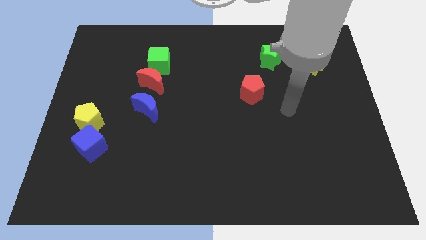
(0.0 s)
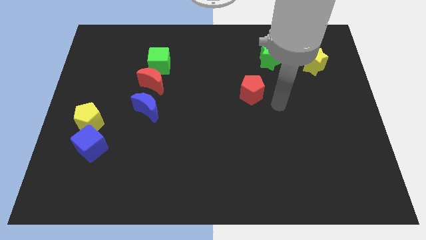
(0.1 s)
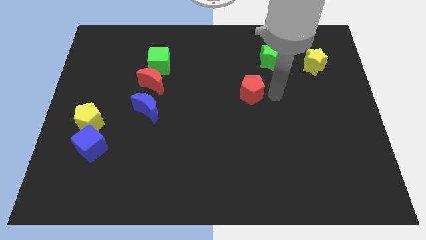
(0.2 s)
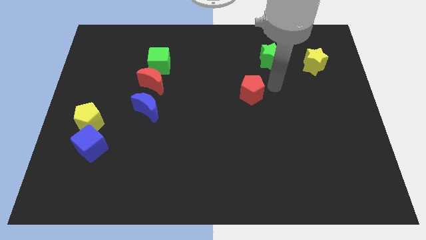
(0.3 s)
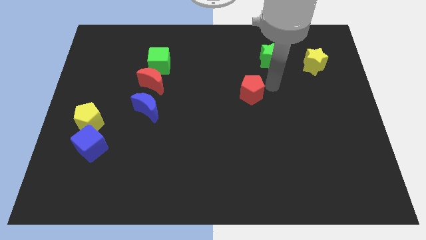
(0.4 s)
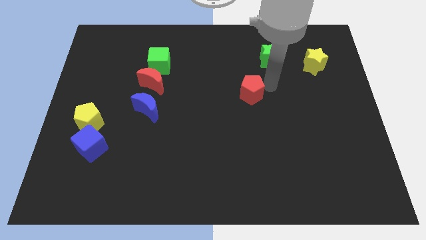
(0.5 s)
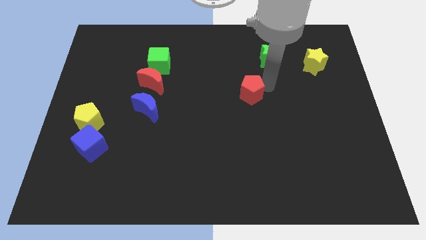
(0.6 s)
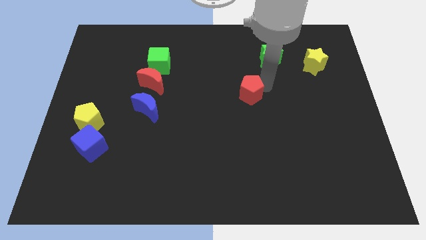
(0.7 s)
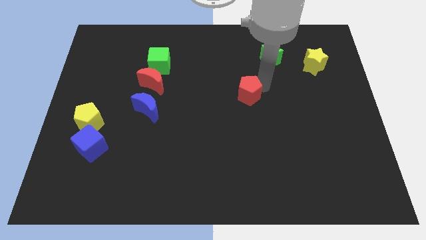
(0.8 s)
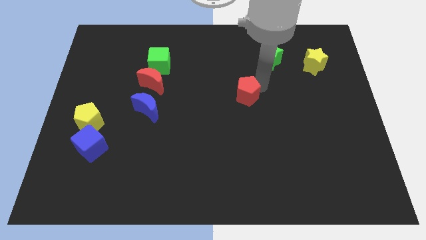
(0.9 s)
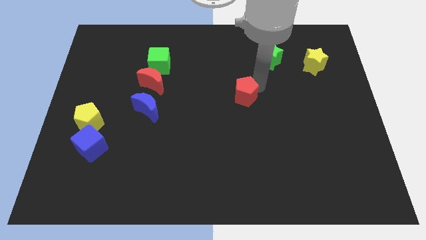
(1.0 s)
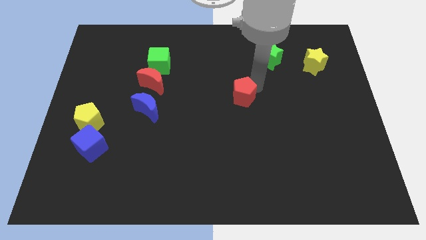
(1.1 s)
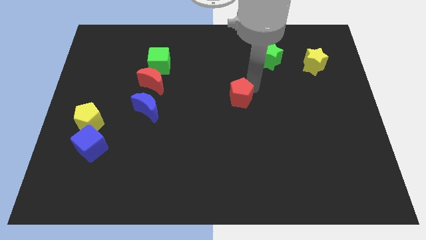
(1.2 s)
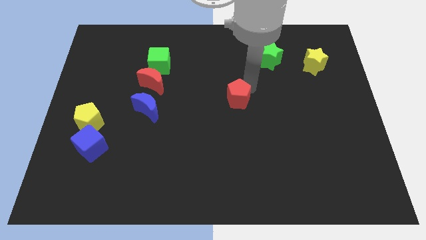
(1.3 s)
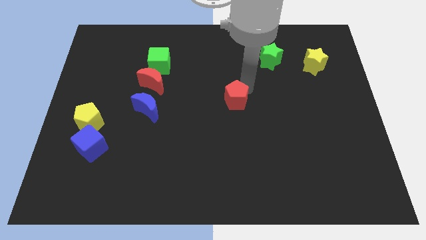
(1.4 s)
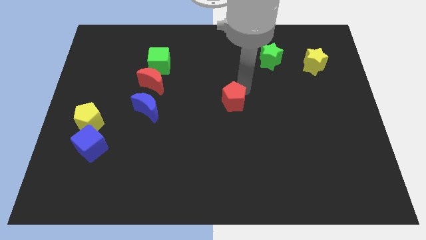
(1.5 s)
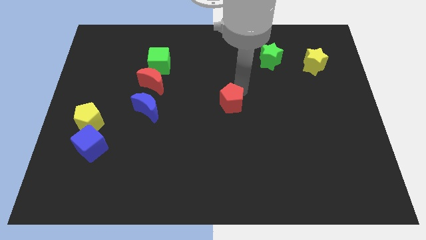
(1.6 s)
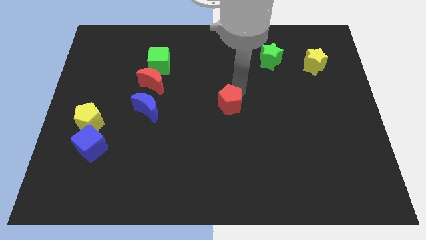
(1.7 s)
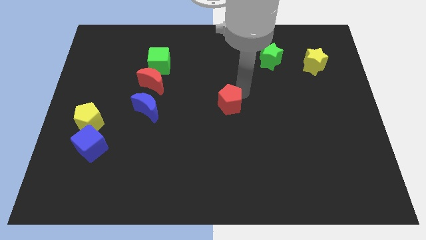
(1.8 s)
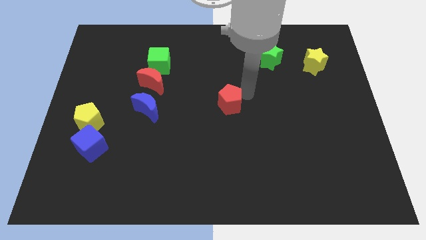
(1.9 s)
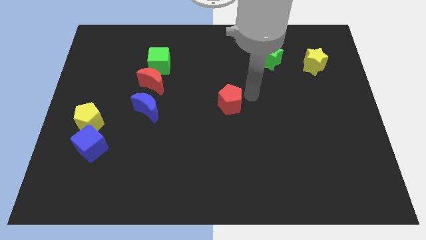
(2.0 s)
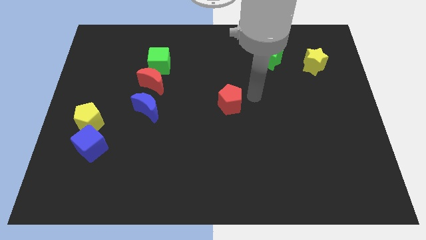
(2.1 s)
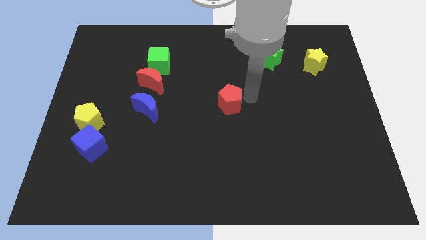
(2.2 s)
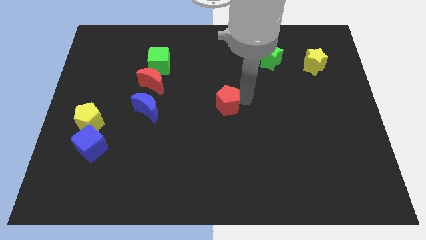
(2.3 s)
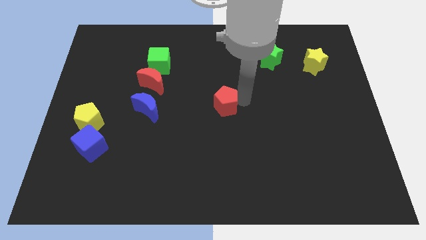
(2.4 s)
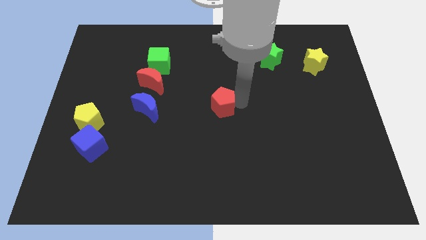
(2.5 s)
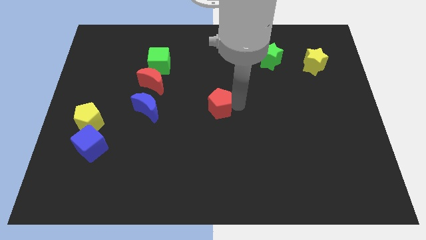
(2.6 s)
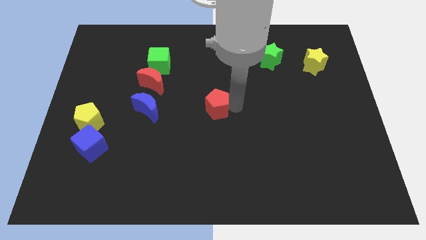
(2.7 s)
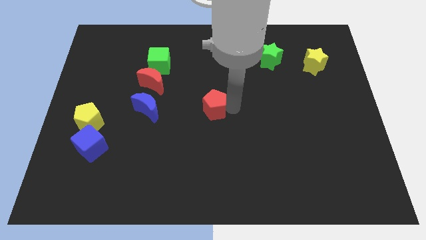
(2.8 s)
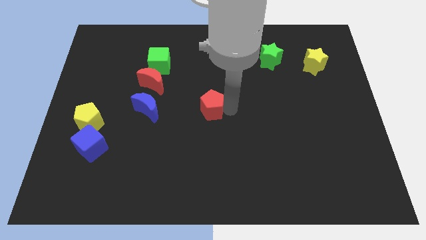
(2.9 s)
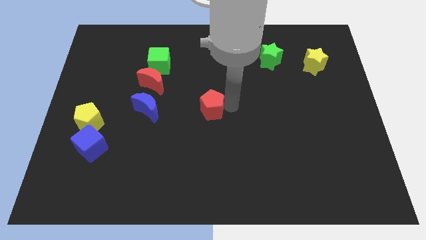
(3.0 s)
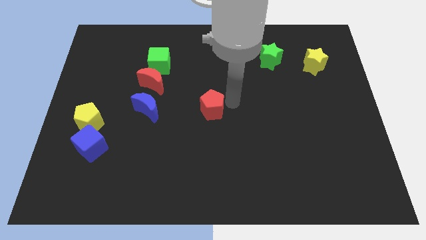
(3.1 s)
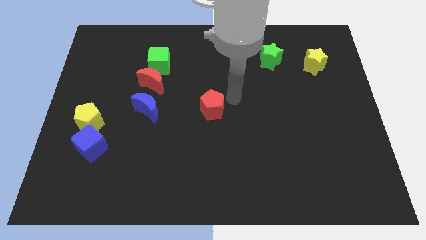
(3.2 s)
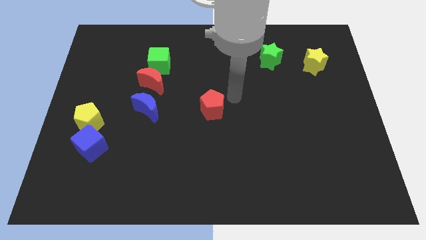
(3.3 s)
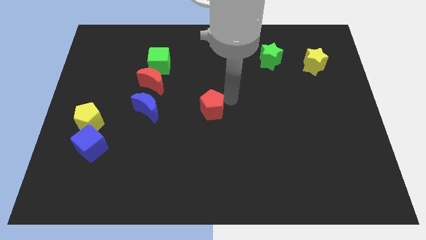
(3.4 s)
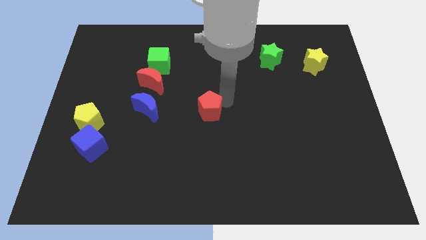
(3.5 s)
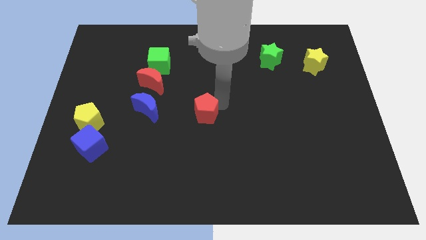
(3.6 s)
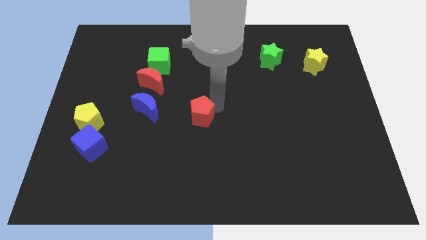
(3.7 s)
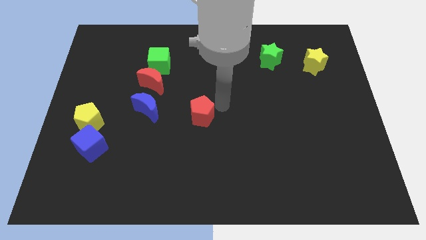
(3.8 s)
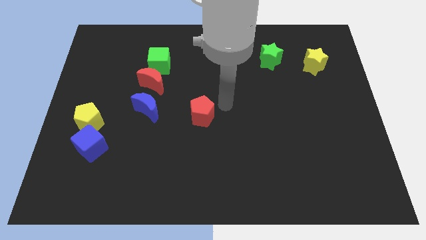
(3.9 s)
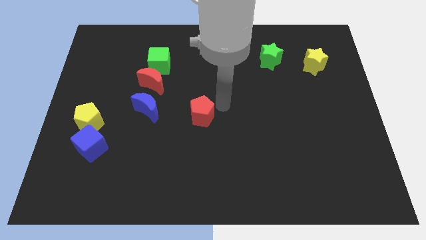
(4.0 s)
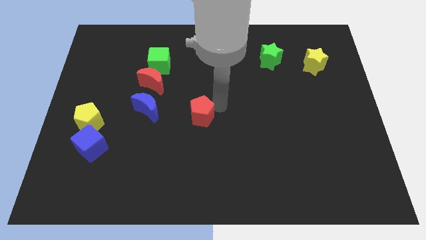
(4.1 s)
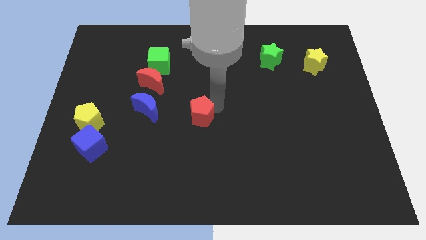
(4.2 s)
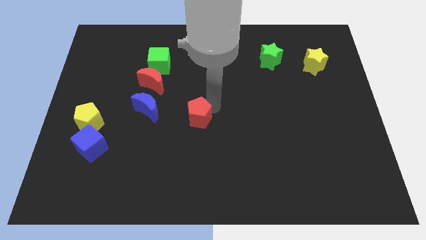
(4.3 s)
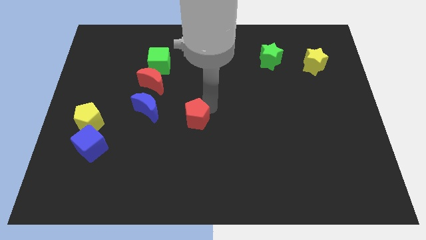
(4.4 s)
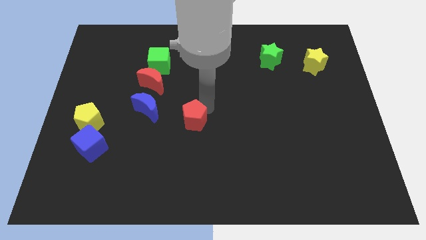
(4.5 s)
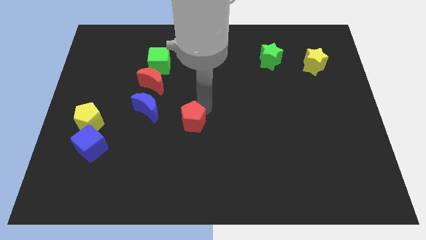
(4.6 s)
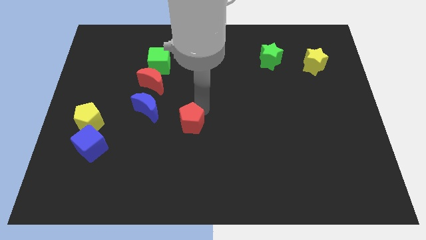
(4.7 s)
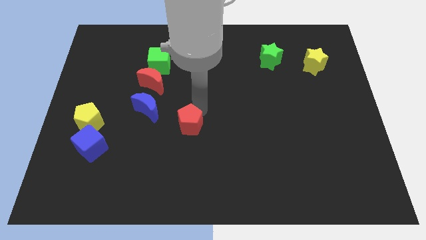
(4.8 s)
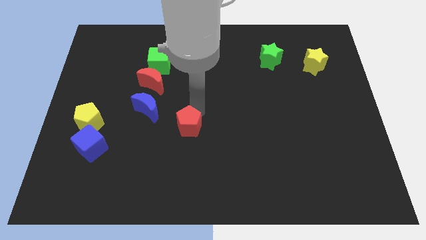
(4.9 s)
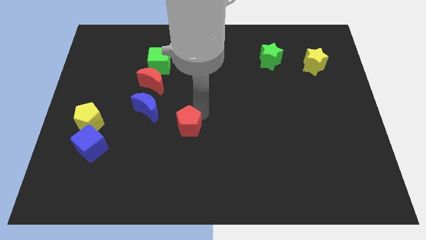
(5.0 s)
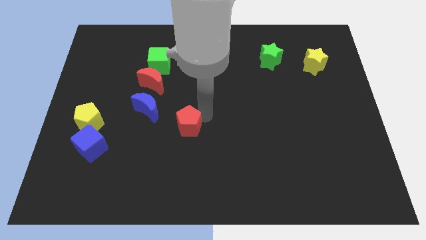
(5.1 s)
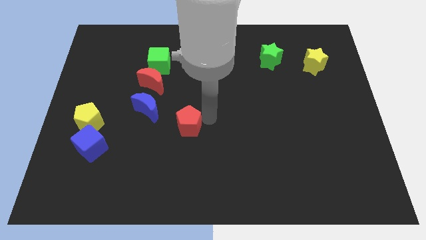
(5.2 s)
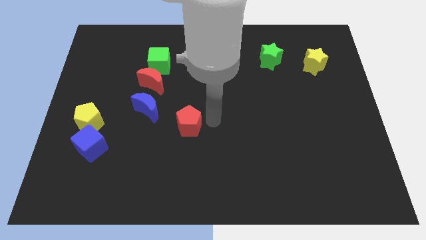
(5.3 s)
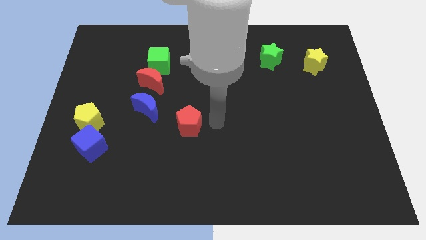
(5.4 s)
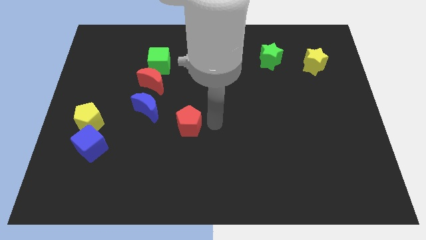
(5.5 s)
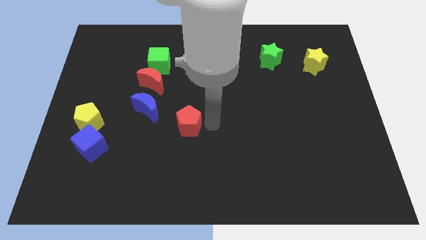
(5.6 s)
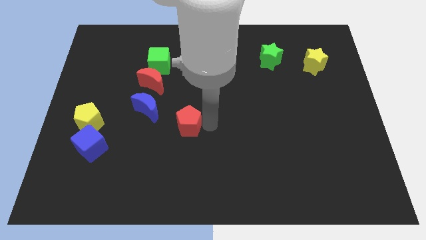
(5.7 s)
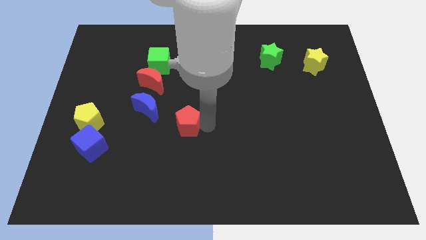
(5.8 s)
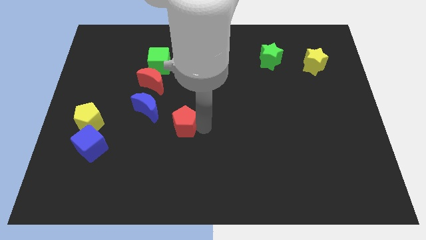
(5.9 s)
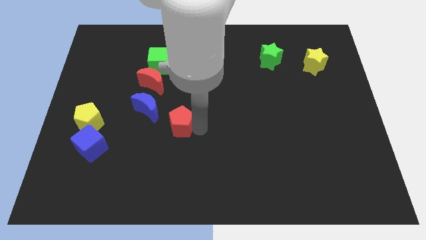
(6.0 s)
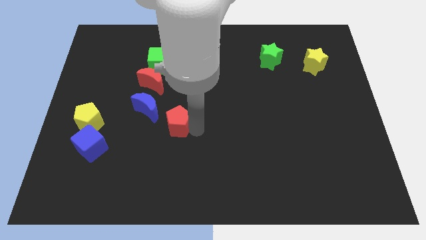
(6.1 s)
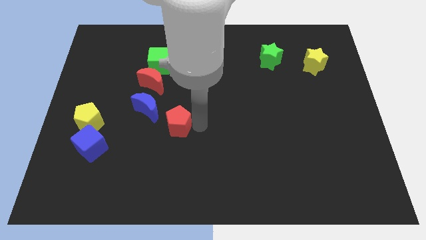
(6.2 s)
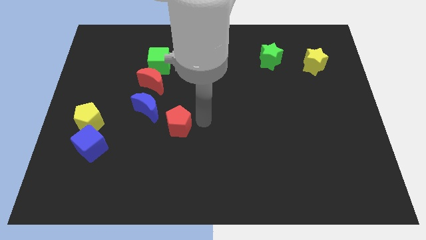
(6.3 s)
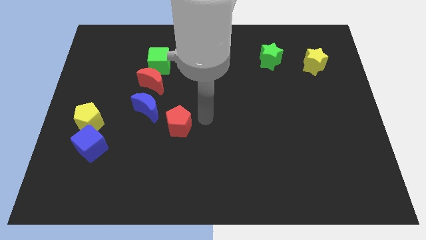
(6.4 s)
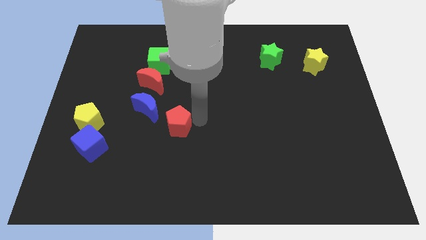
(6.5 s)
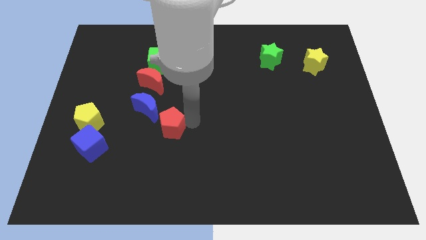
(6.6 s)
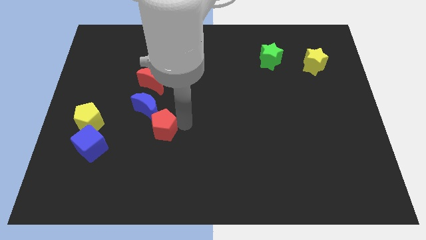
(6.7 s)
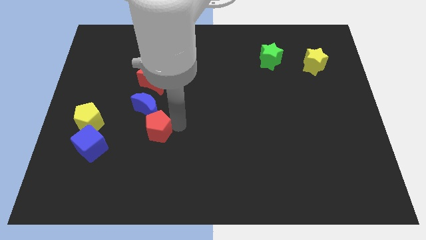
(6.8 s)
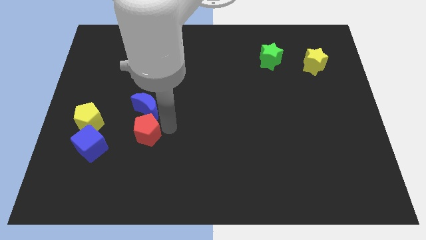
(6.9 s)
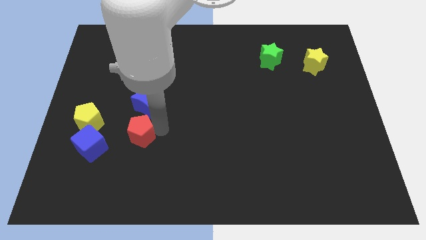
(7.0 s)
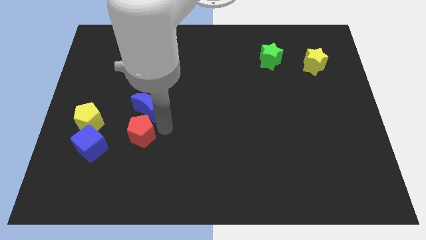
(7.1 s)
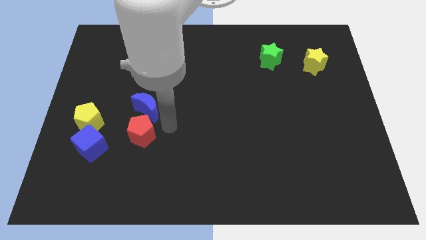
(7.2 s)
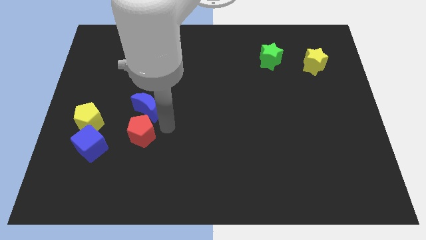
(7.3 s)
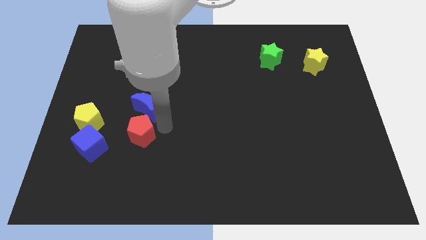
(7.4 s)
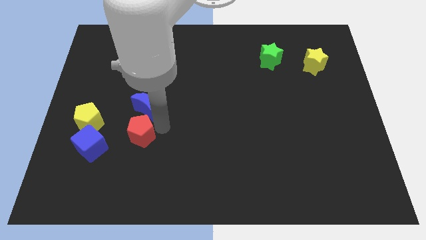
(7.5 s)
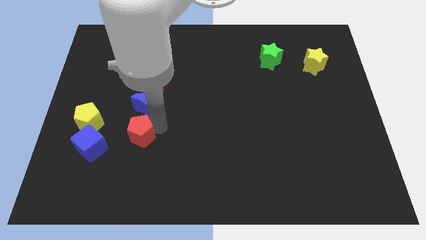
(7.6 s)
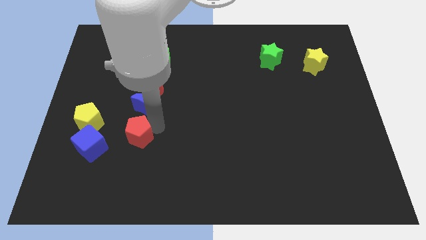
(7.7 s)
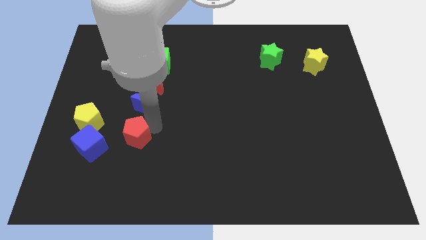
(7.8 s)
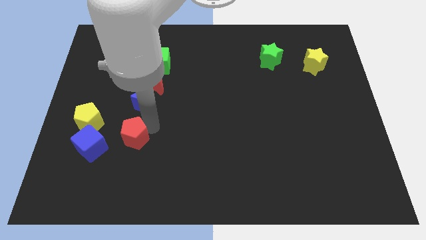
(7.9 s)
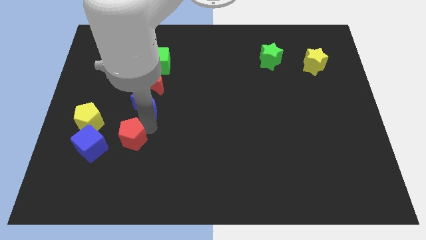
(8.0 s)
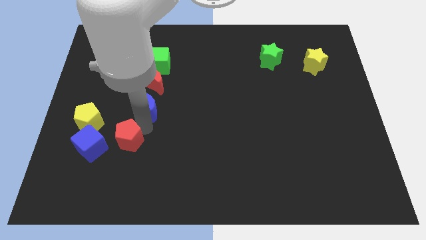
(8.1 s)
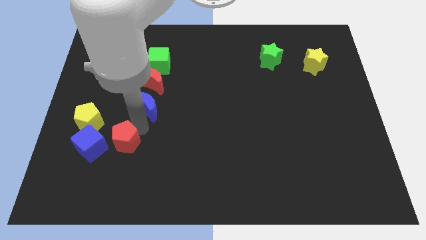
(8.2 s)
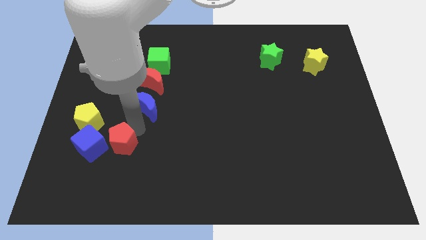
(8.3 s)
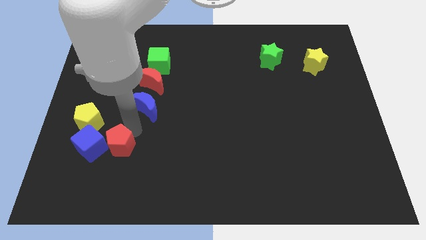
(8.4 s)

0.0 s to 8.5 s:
push the red pentagon close to the blue cube
